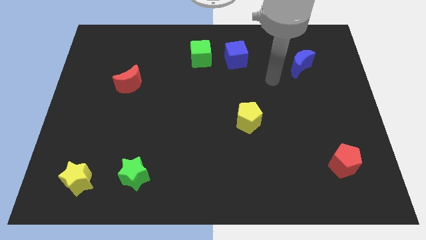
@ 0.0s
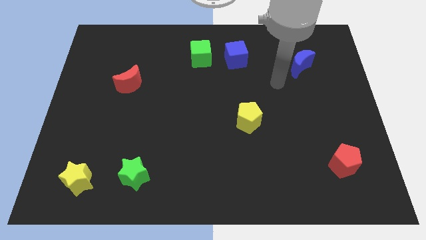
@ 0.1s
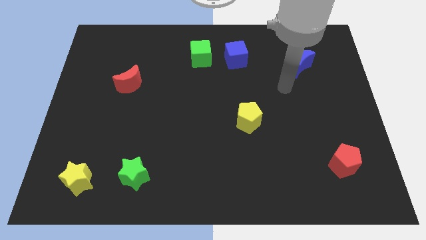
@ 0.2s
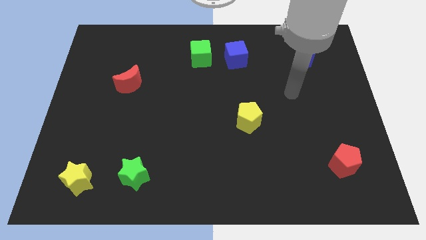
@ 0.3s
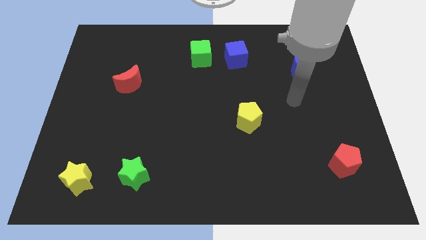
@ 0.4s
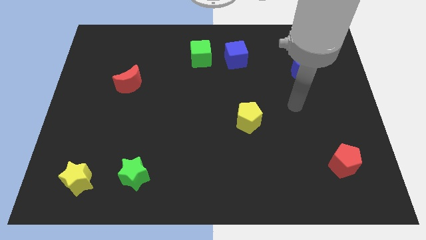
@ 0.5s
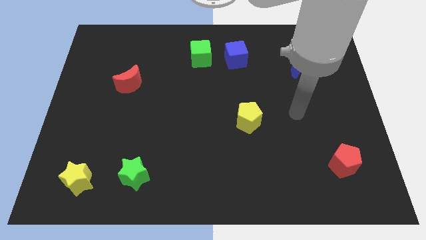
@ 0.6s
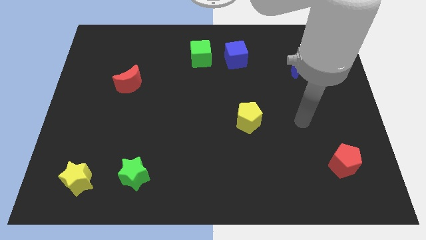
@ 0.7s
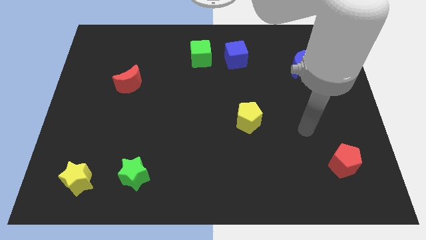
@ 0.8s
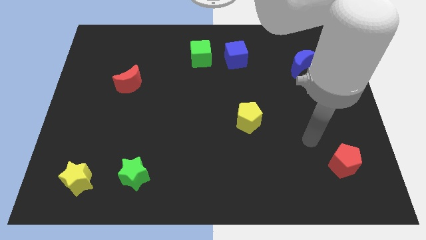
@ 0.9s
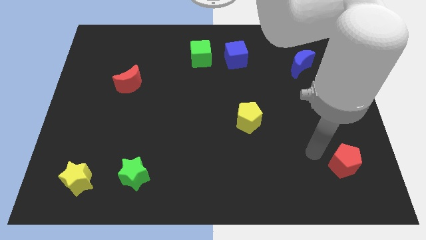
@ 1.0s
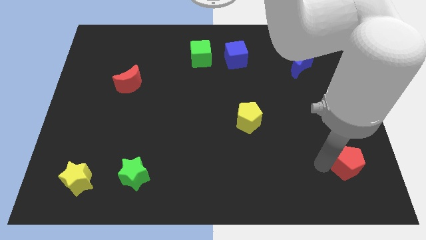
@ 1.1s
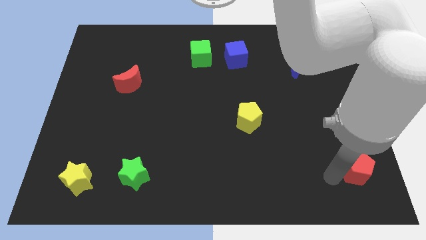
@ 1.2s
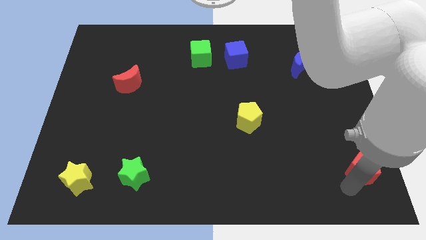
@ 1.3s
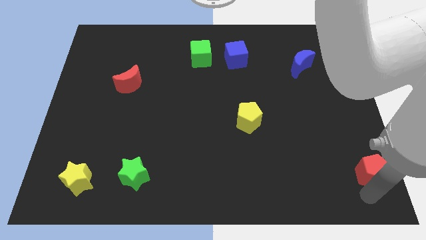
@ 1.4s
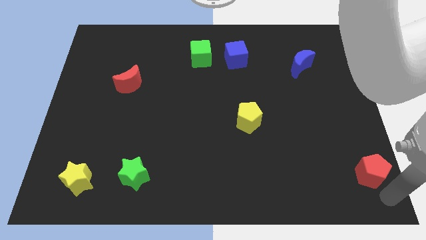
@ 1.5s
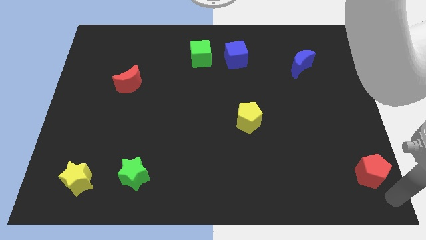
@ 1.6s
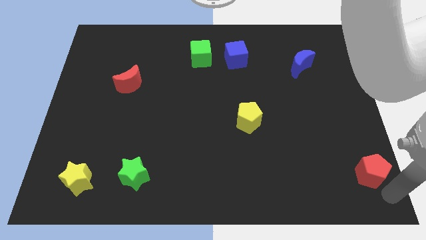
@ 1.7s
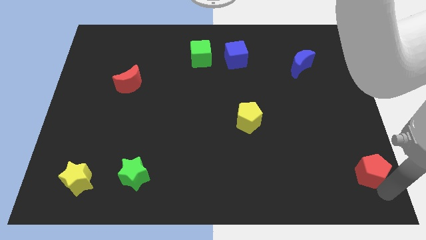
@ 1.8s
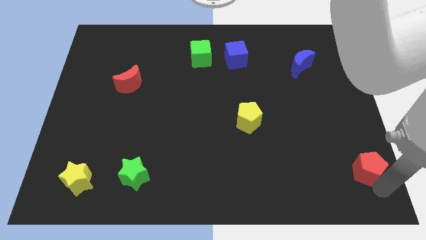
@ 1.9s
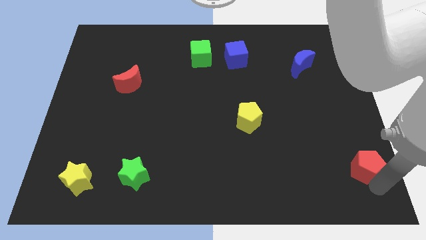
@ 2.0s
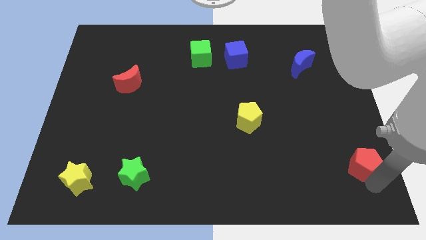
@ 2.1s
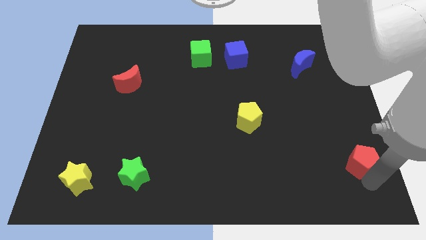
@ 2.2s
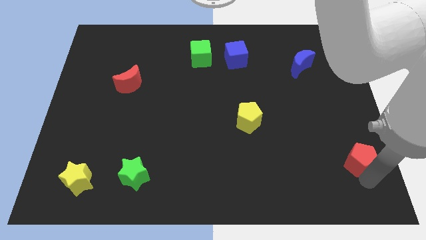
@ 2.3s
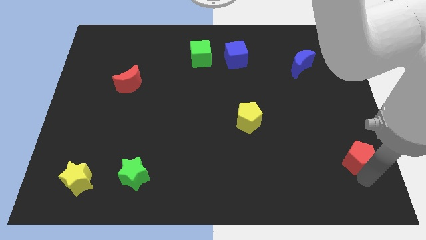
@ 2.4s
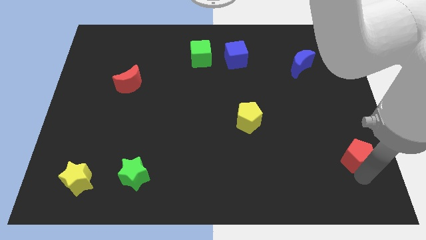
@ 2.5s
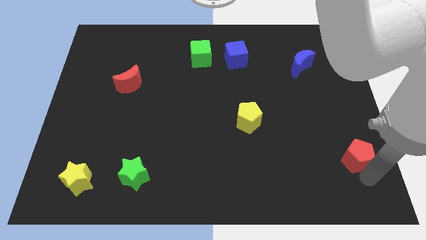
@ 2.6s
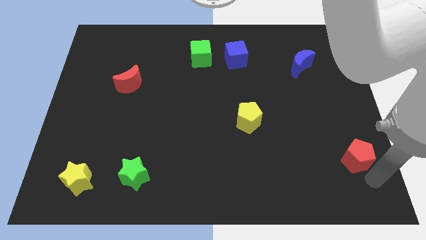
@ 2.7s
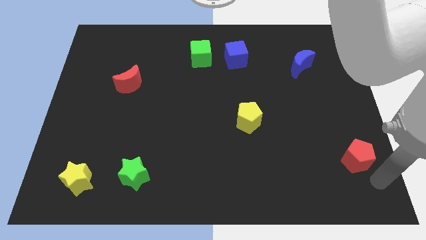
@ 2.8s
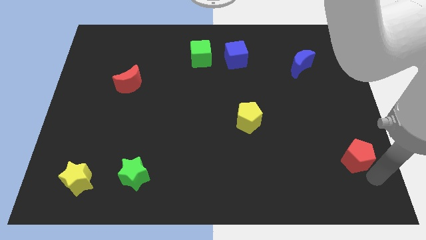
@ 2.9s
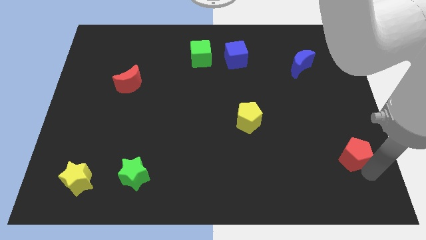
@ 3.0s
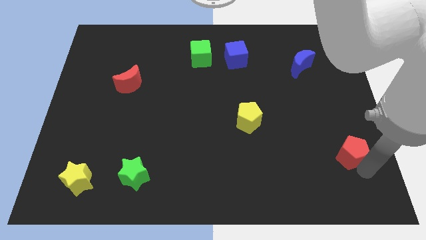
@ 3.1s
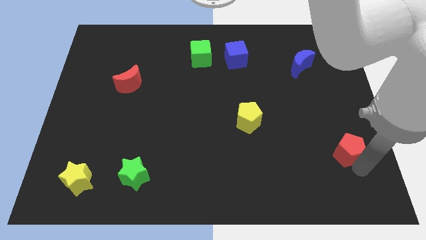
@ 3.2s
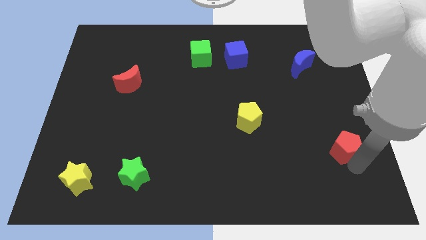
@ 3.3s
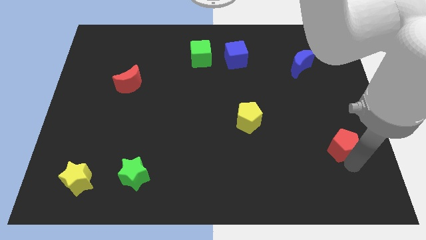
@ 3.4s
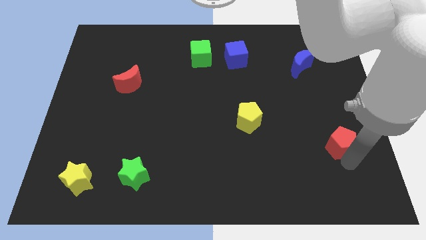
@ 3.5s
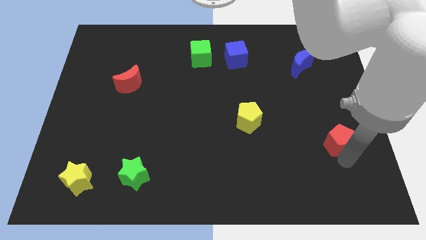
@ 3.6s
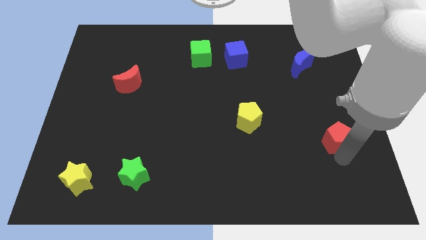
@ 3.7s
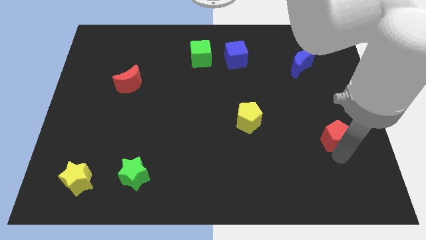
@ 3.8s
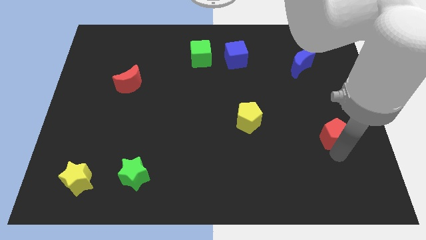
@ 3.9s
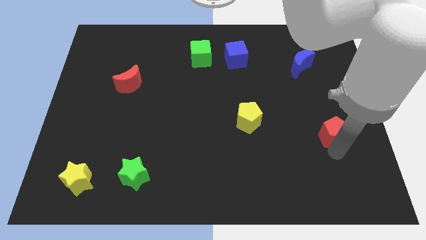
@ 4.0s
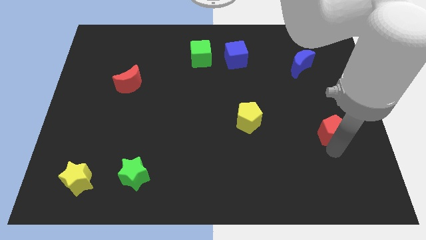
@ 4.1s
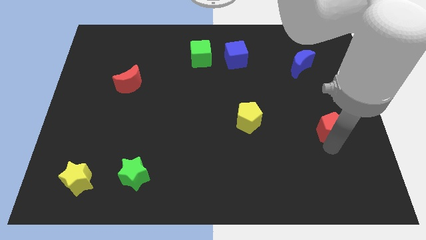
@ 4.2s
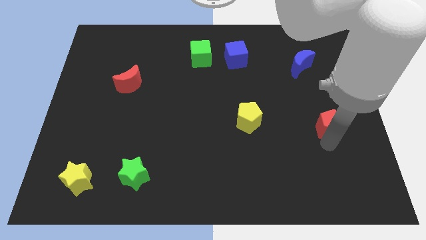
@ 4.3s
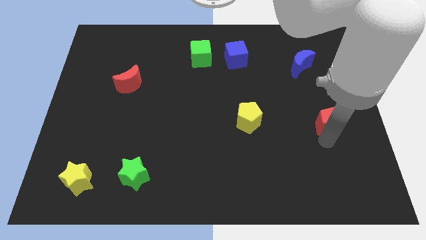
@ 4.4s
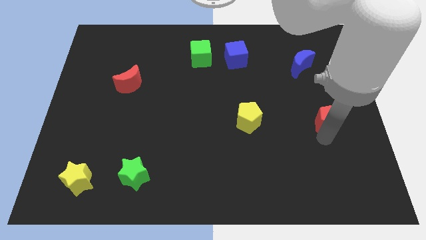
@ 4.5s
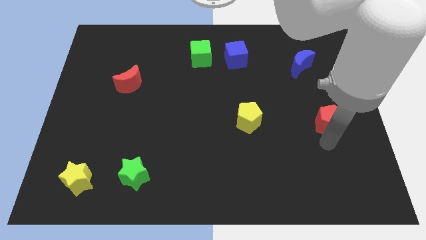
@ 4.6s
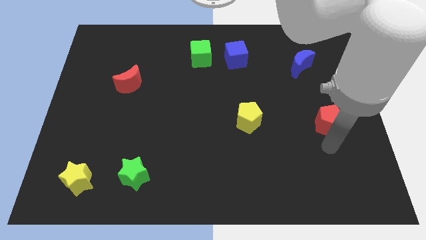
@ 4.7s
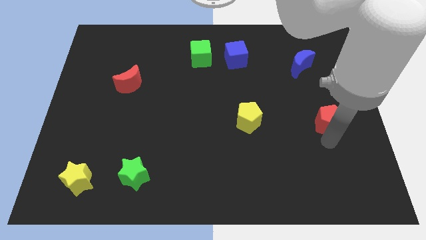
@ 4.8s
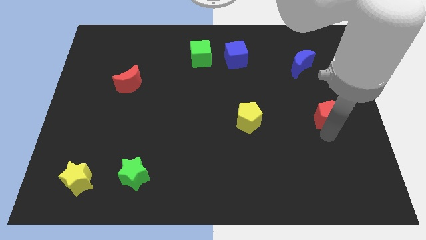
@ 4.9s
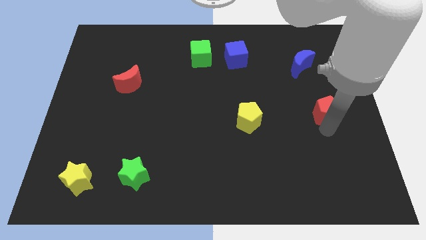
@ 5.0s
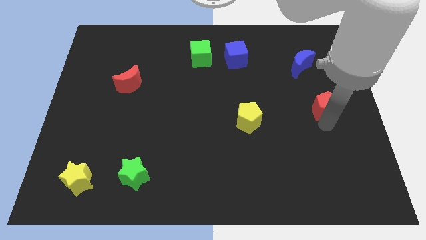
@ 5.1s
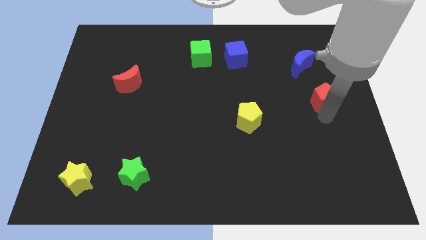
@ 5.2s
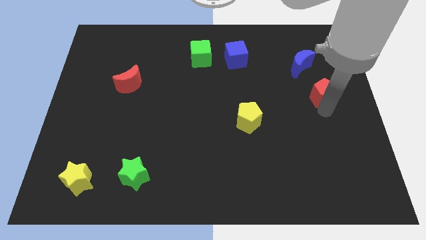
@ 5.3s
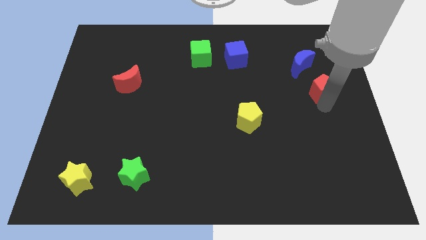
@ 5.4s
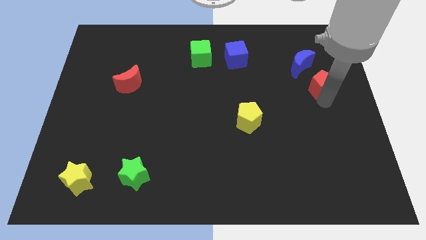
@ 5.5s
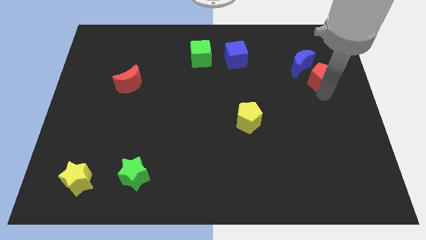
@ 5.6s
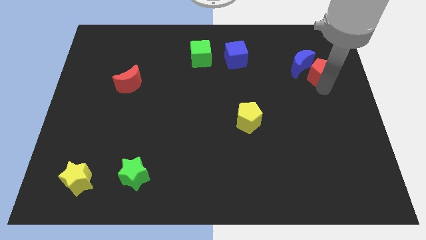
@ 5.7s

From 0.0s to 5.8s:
slide the red pentagon to the blue moon
